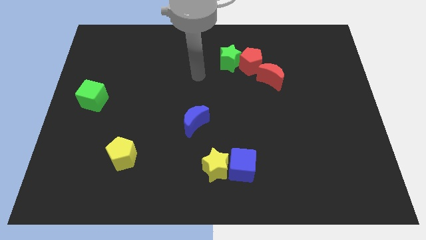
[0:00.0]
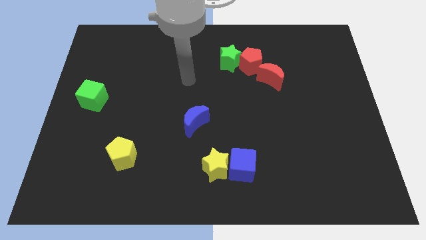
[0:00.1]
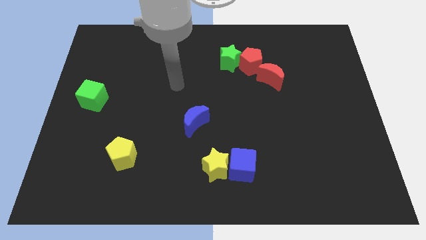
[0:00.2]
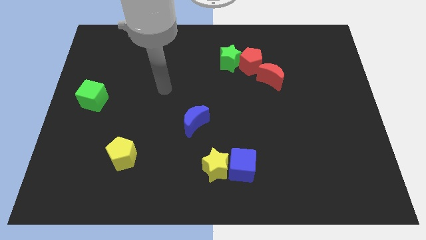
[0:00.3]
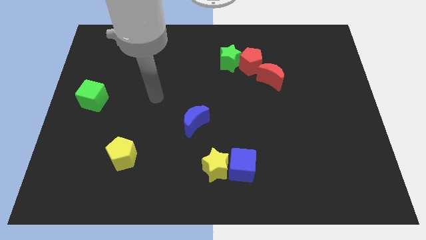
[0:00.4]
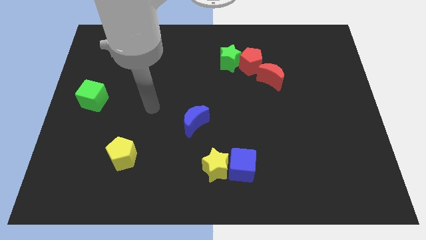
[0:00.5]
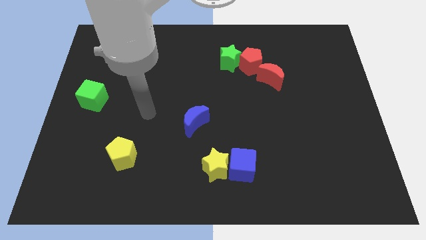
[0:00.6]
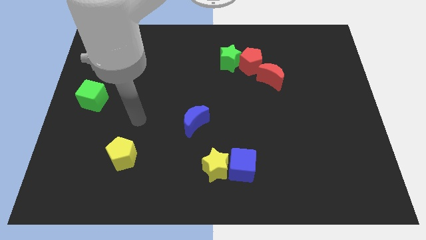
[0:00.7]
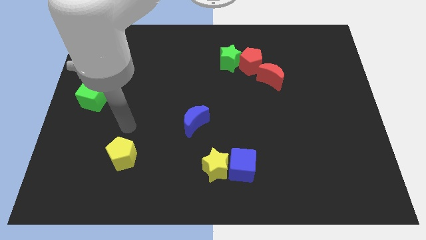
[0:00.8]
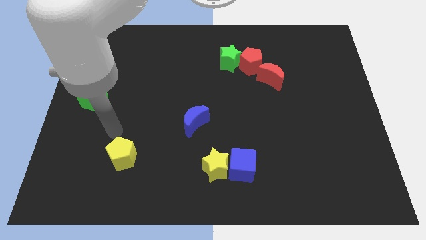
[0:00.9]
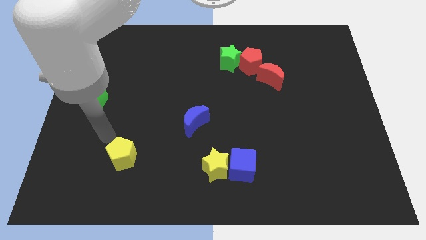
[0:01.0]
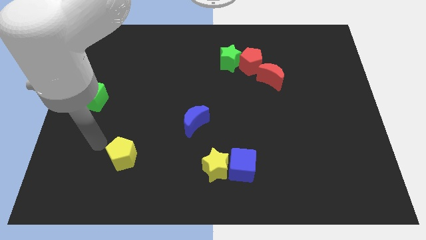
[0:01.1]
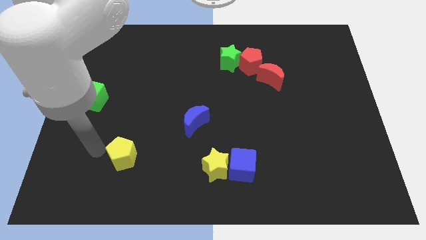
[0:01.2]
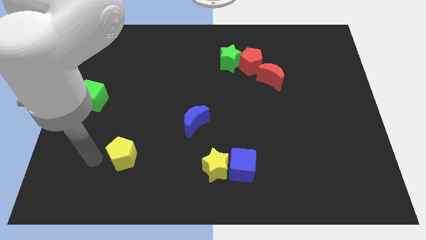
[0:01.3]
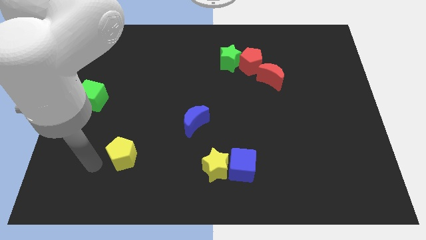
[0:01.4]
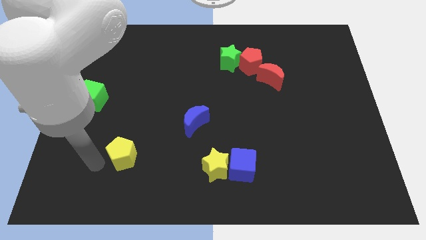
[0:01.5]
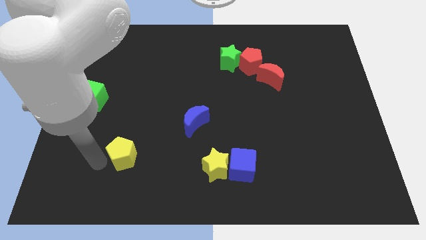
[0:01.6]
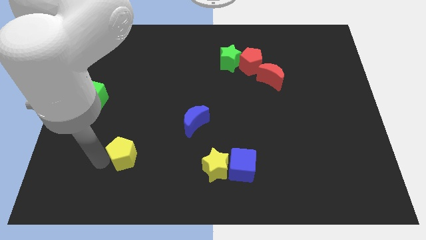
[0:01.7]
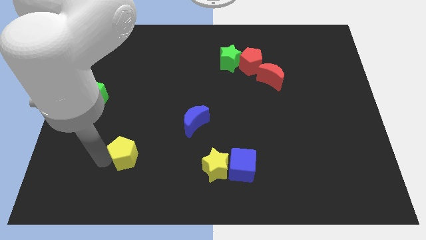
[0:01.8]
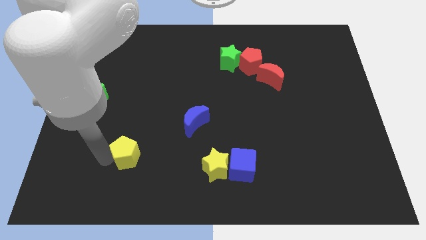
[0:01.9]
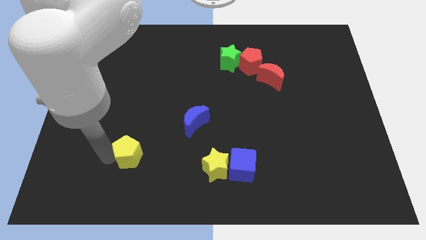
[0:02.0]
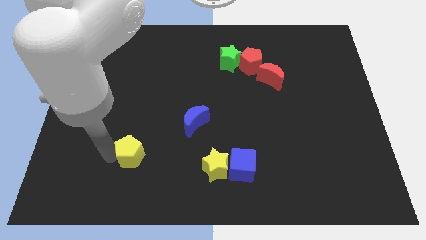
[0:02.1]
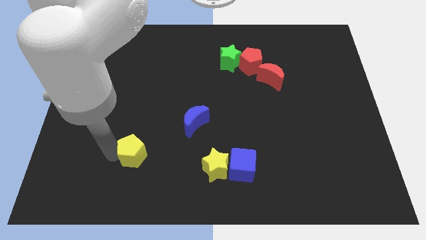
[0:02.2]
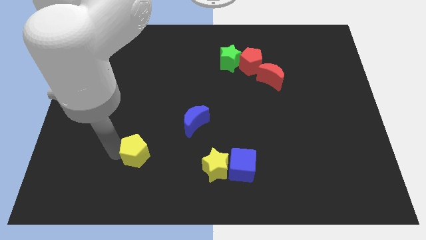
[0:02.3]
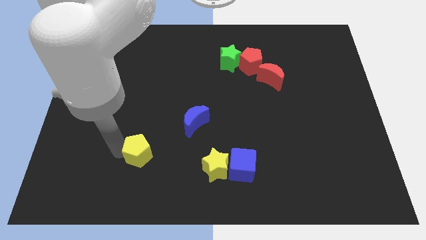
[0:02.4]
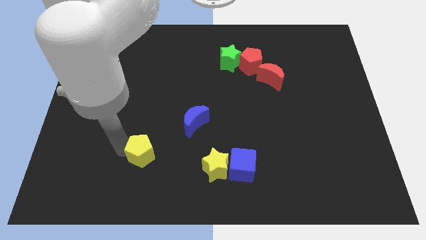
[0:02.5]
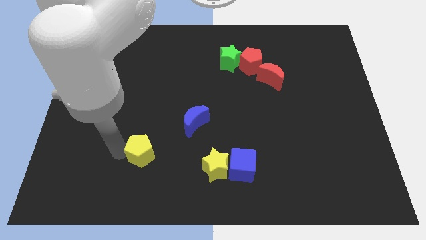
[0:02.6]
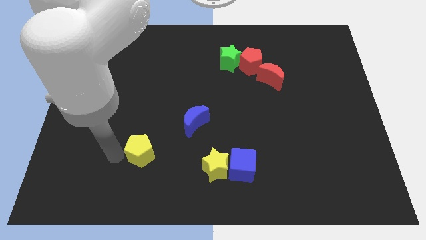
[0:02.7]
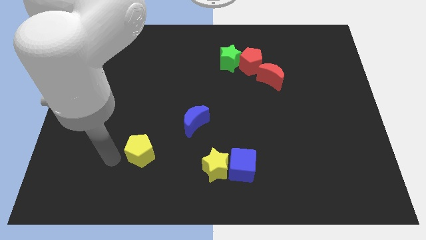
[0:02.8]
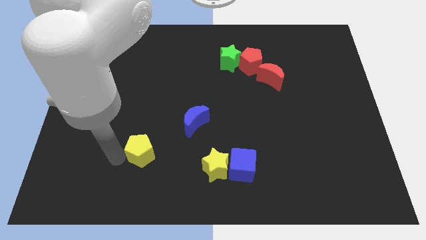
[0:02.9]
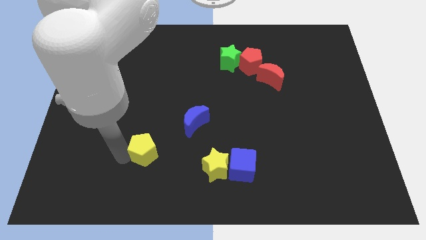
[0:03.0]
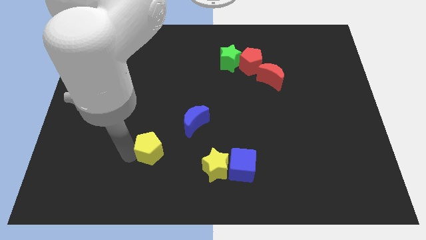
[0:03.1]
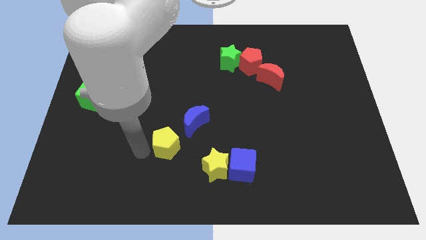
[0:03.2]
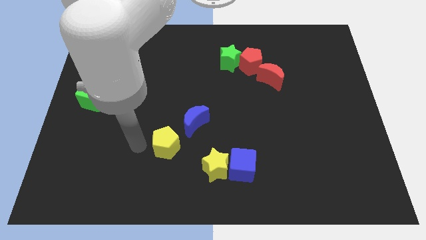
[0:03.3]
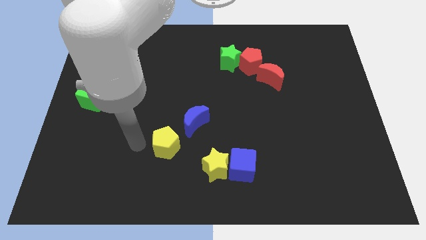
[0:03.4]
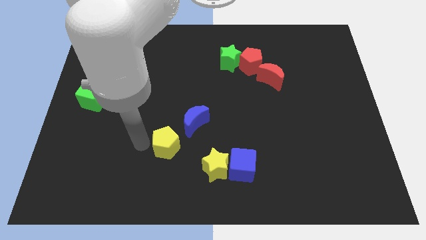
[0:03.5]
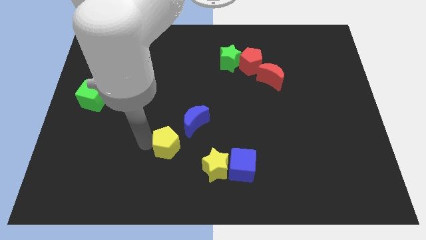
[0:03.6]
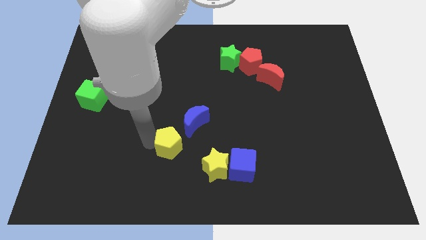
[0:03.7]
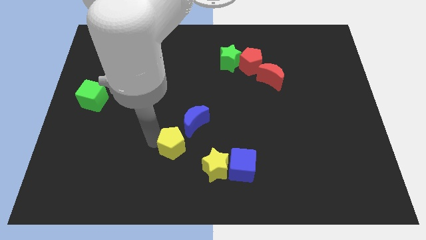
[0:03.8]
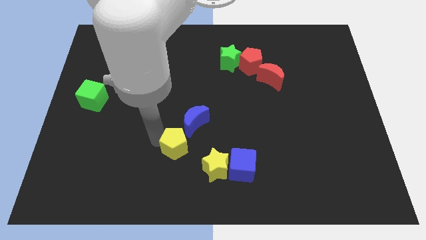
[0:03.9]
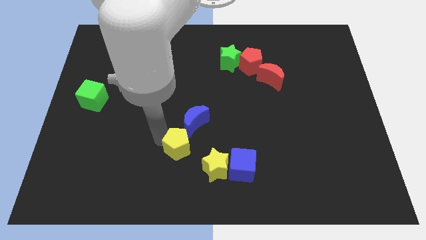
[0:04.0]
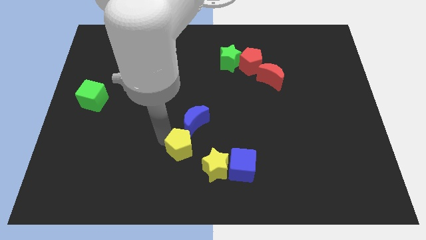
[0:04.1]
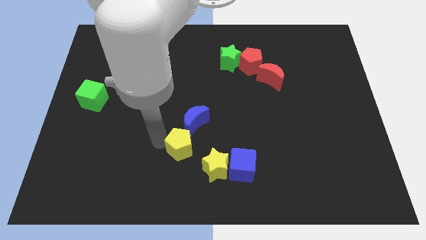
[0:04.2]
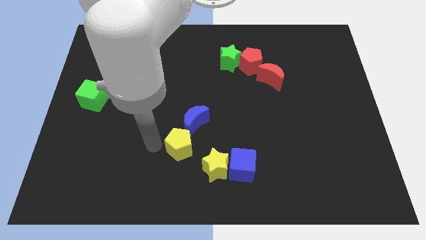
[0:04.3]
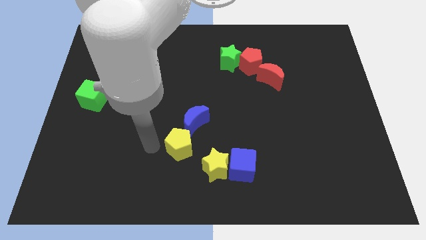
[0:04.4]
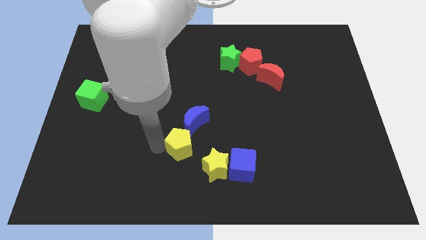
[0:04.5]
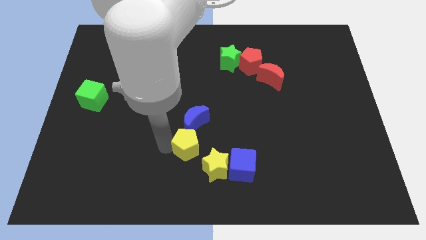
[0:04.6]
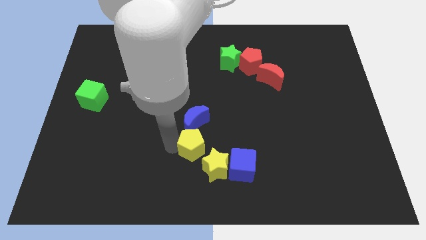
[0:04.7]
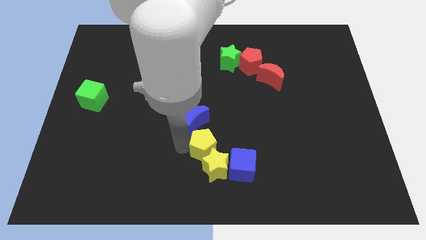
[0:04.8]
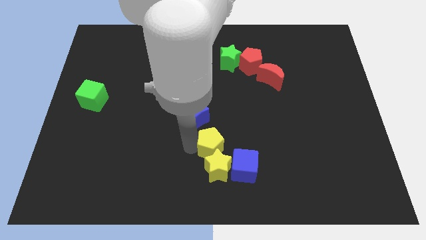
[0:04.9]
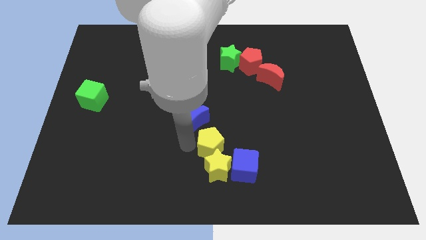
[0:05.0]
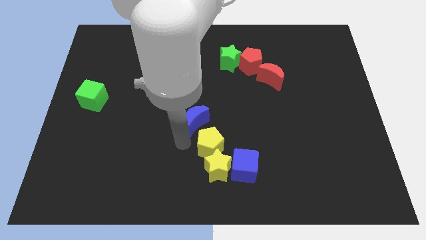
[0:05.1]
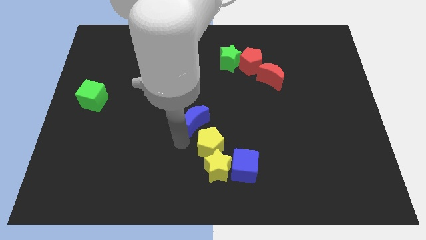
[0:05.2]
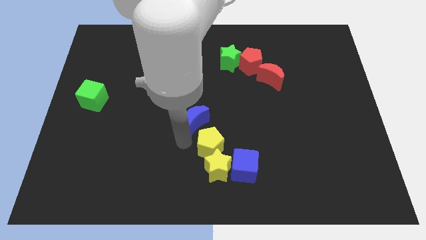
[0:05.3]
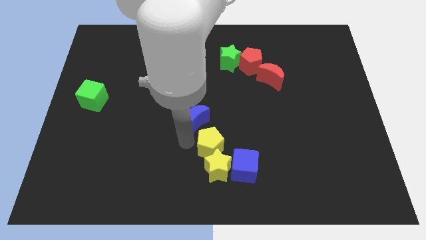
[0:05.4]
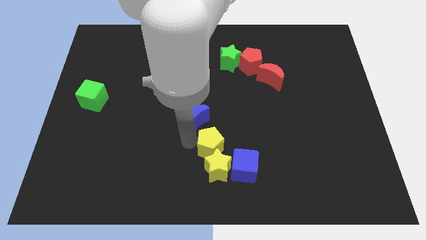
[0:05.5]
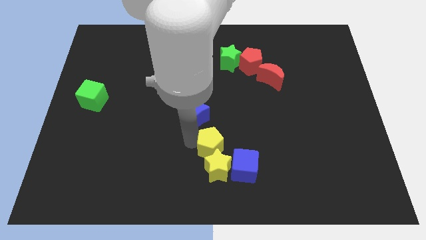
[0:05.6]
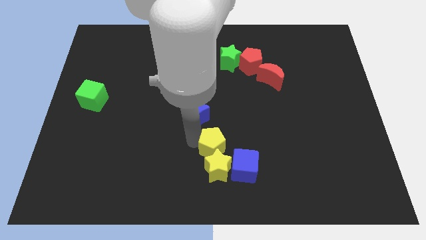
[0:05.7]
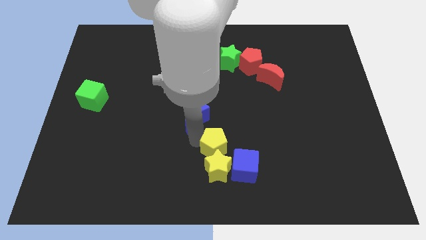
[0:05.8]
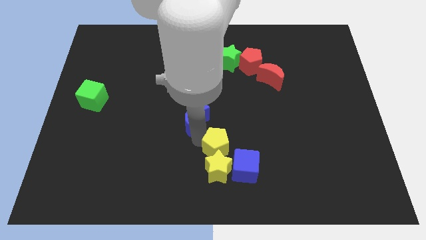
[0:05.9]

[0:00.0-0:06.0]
push the yellow pentagon right

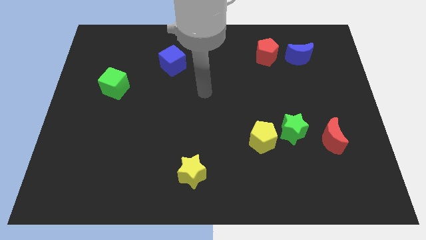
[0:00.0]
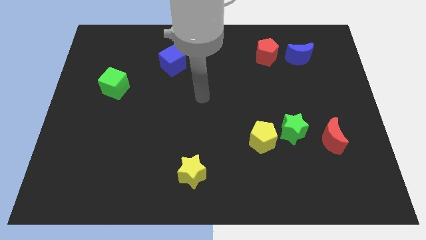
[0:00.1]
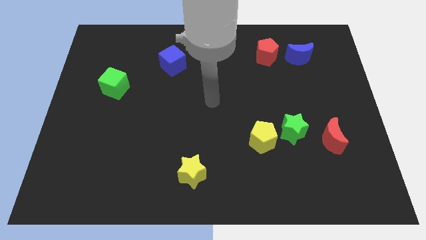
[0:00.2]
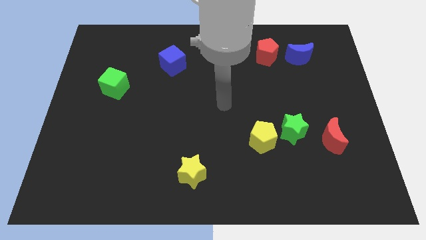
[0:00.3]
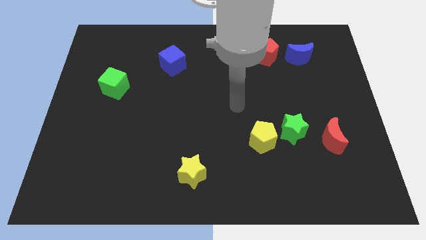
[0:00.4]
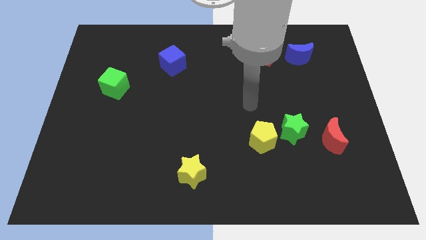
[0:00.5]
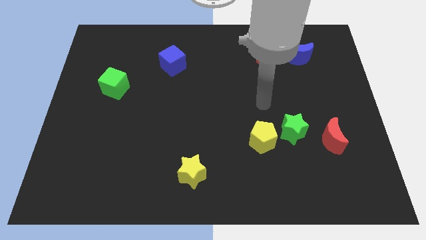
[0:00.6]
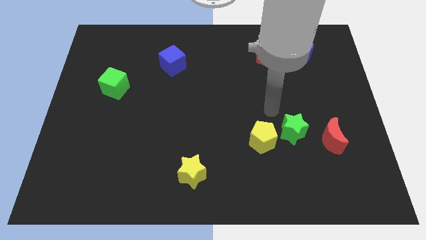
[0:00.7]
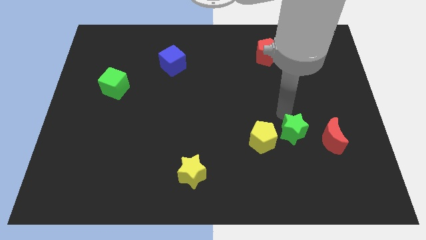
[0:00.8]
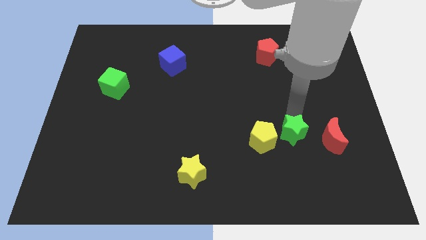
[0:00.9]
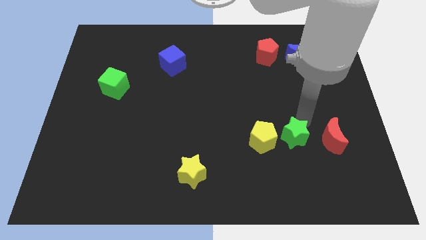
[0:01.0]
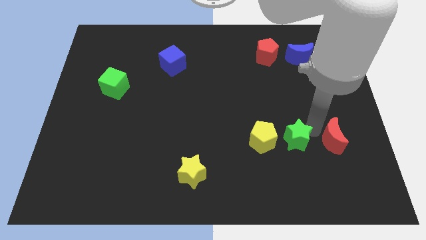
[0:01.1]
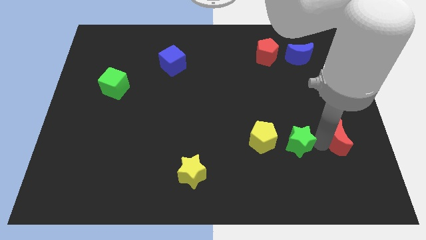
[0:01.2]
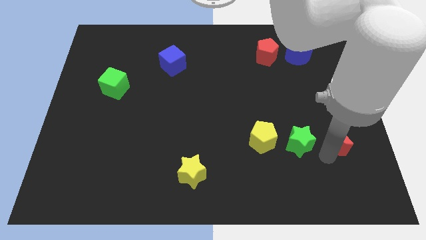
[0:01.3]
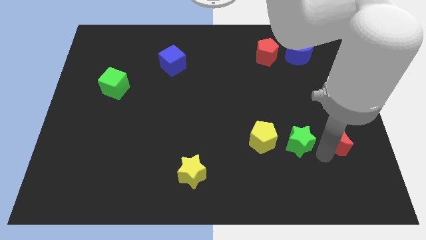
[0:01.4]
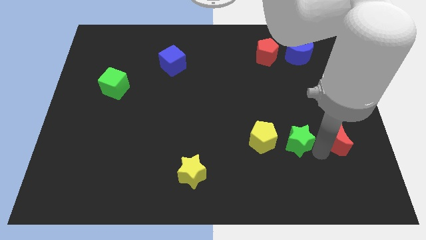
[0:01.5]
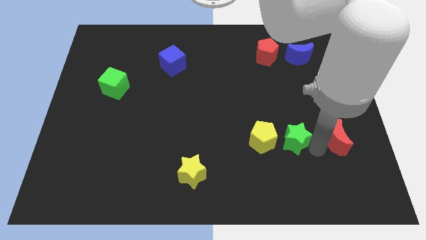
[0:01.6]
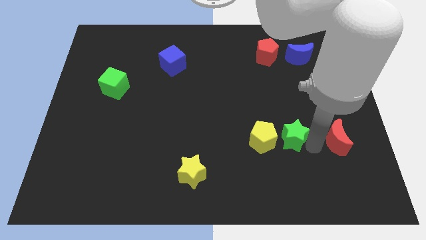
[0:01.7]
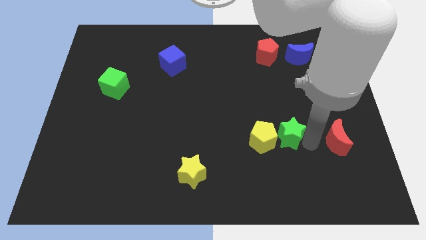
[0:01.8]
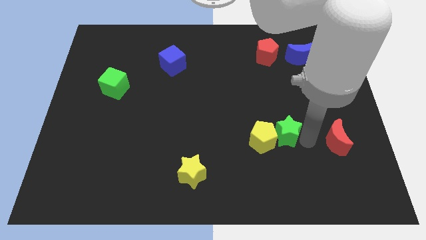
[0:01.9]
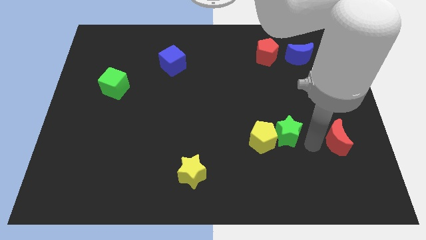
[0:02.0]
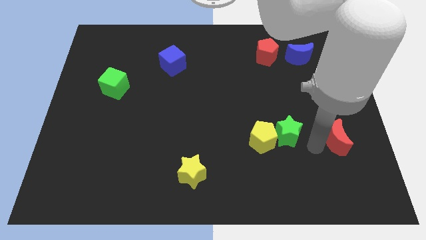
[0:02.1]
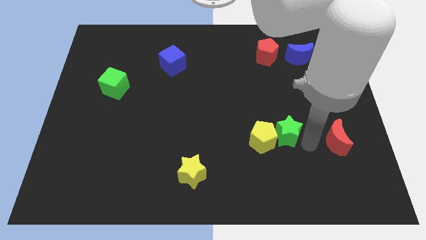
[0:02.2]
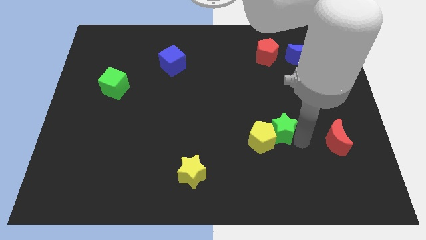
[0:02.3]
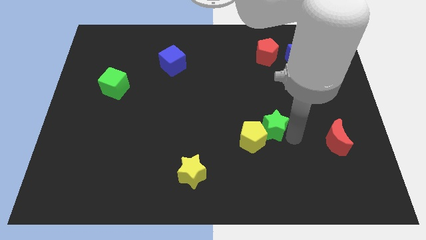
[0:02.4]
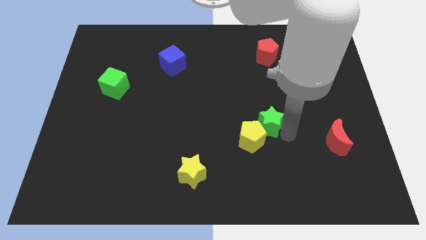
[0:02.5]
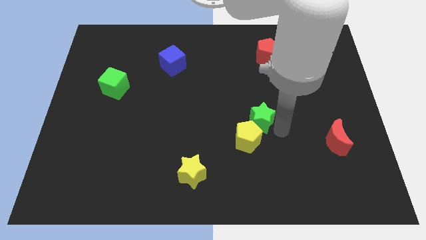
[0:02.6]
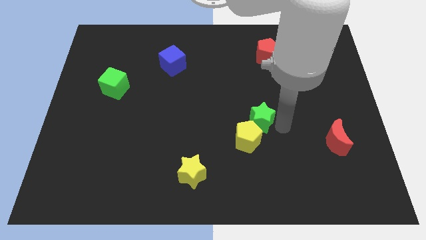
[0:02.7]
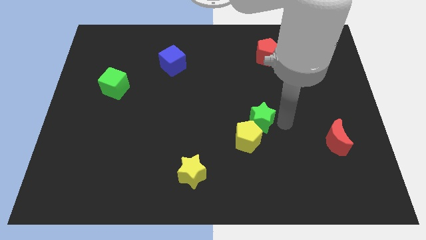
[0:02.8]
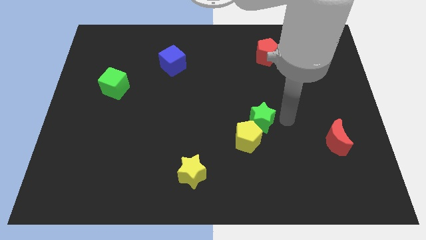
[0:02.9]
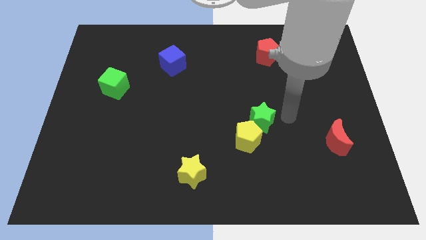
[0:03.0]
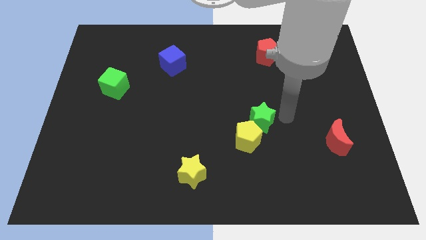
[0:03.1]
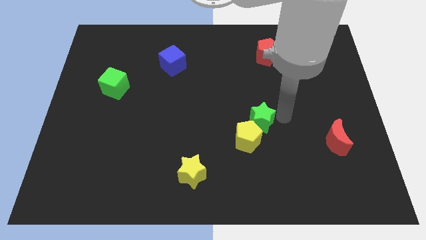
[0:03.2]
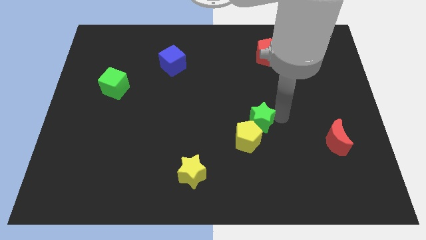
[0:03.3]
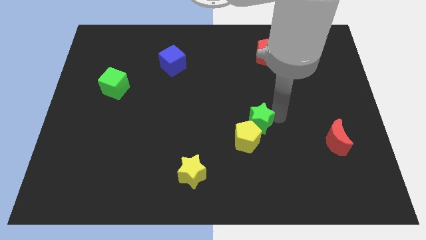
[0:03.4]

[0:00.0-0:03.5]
slide the green star a little bit left
